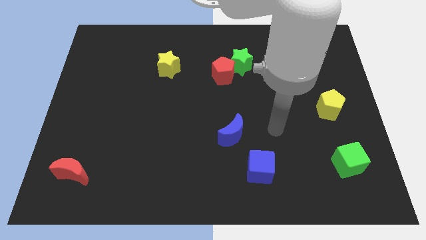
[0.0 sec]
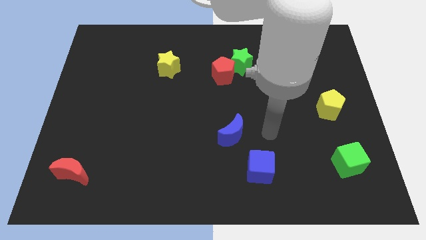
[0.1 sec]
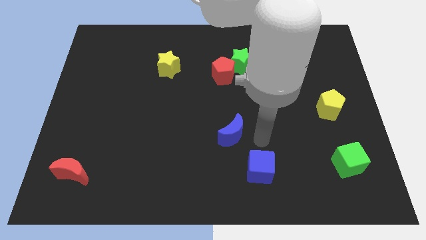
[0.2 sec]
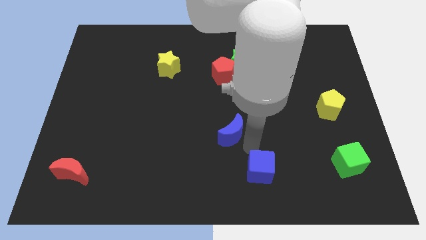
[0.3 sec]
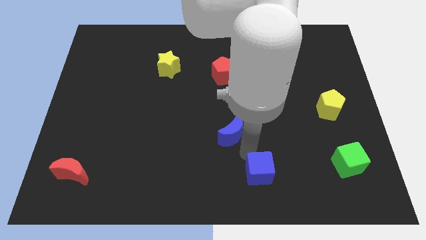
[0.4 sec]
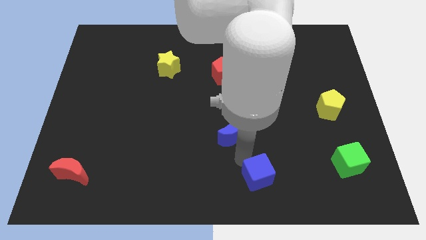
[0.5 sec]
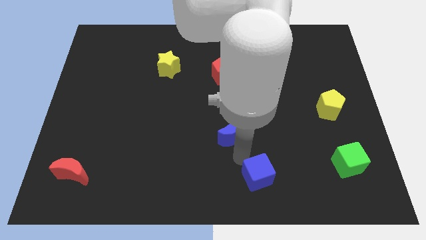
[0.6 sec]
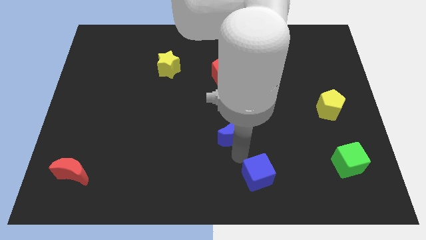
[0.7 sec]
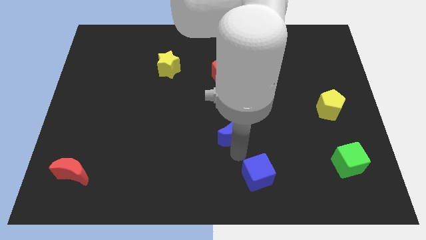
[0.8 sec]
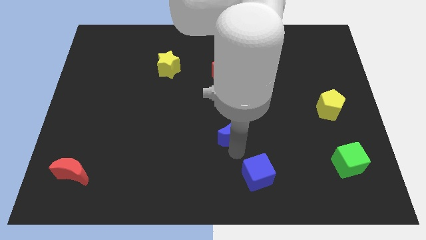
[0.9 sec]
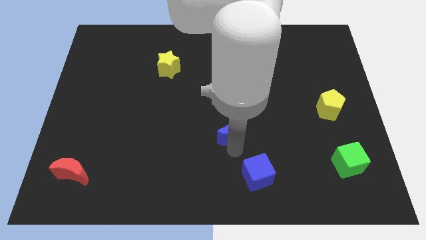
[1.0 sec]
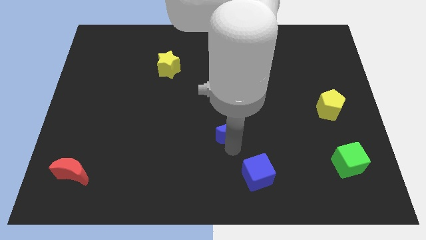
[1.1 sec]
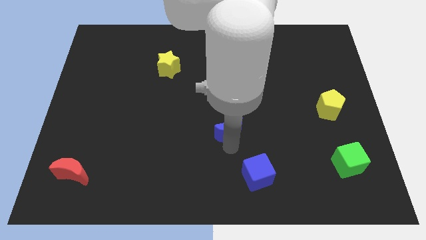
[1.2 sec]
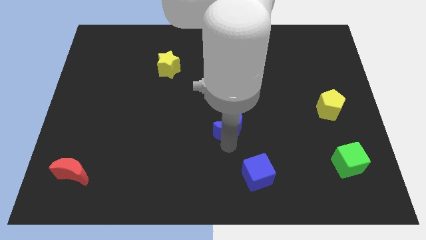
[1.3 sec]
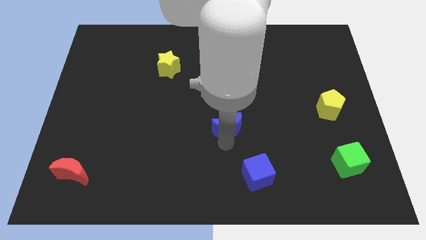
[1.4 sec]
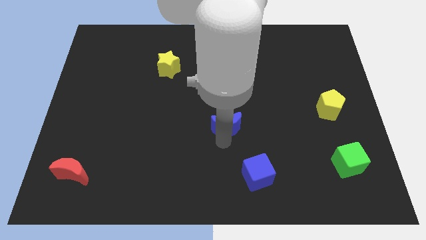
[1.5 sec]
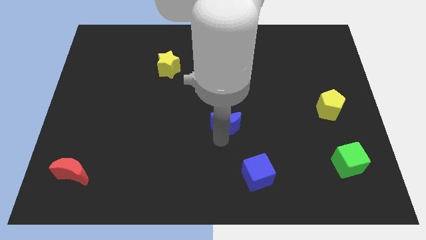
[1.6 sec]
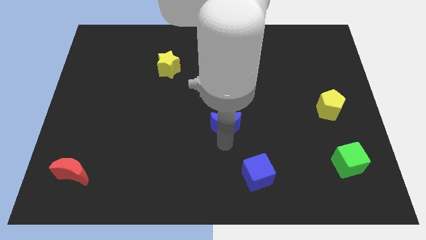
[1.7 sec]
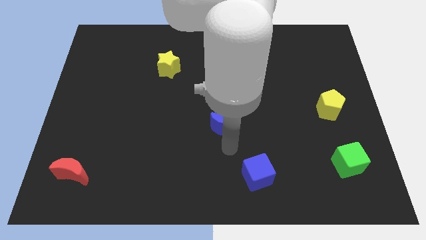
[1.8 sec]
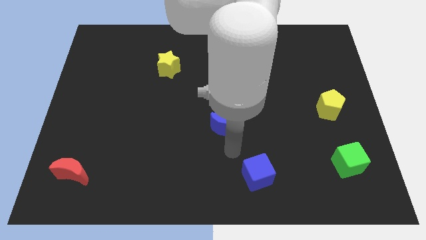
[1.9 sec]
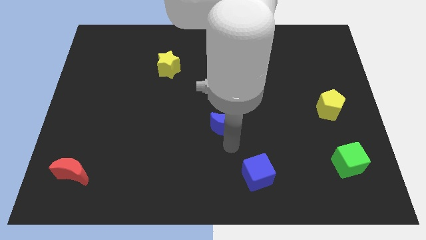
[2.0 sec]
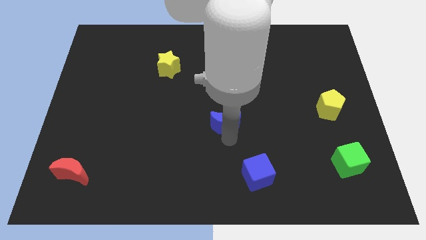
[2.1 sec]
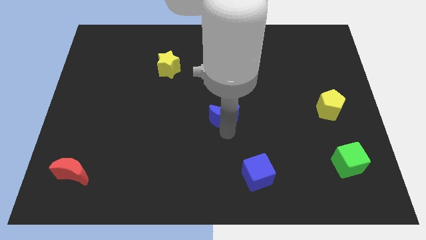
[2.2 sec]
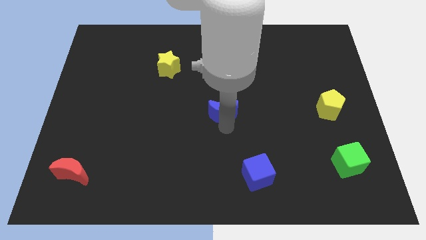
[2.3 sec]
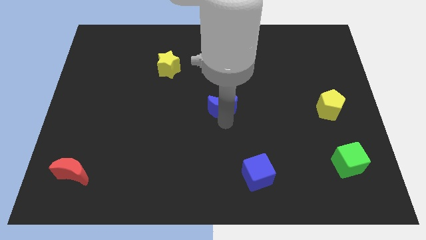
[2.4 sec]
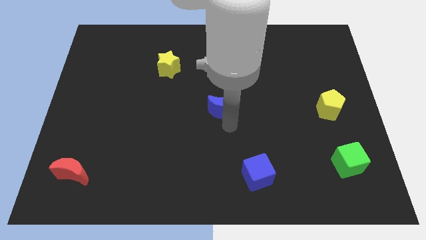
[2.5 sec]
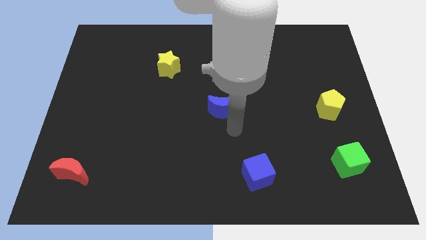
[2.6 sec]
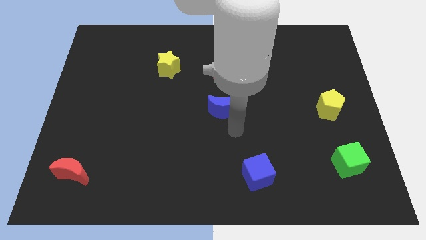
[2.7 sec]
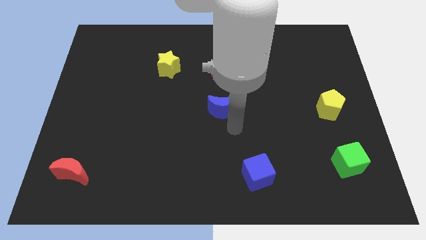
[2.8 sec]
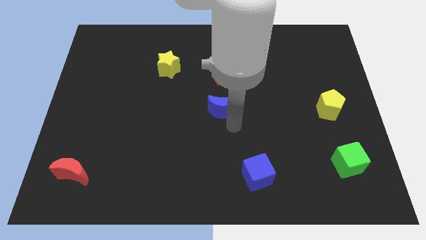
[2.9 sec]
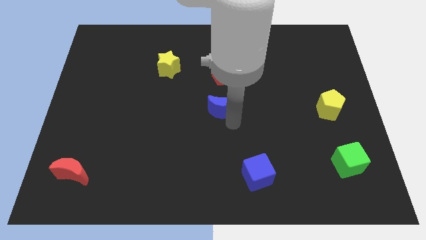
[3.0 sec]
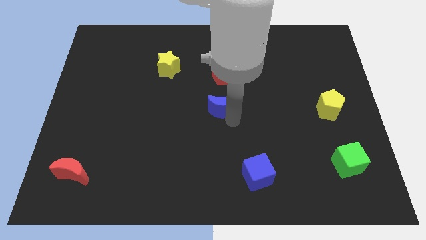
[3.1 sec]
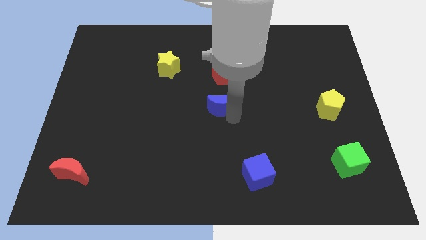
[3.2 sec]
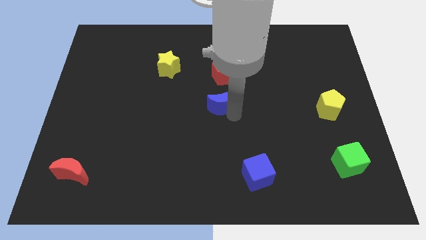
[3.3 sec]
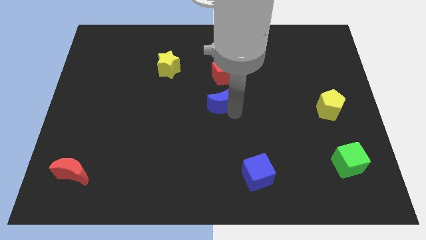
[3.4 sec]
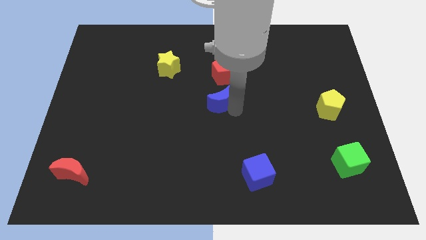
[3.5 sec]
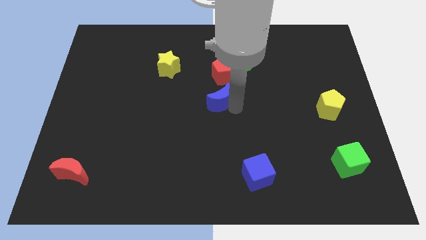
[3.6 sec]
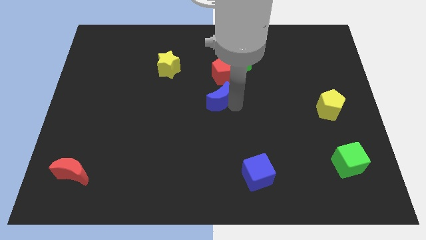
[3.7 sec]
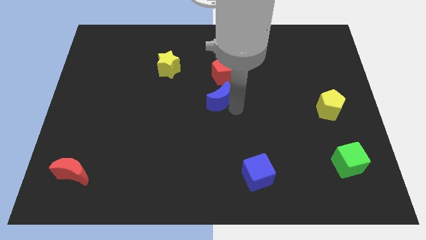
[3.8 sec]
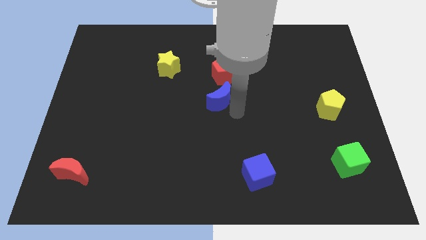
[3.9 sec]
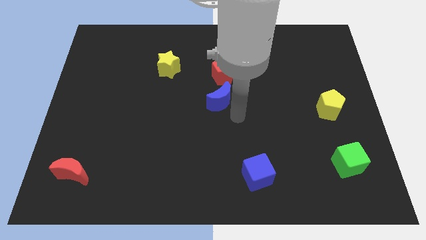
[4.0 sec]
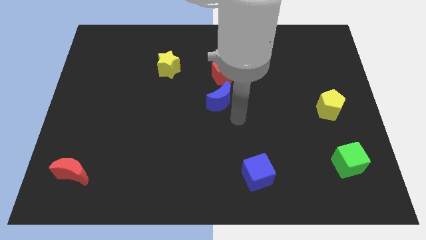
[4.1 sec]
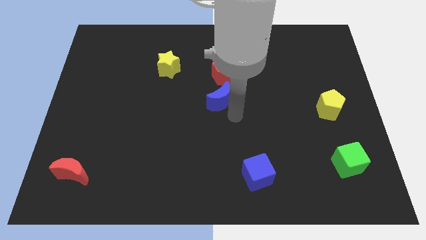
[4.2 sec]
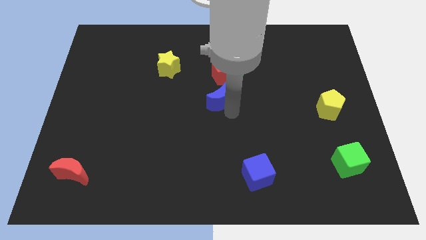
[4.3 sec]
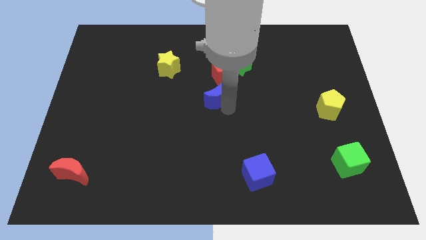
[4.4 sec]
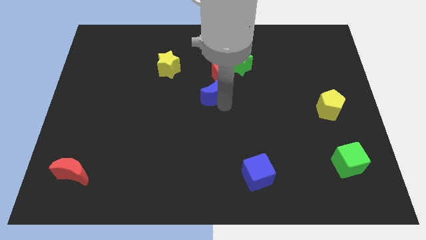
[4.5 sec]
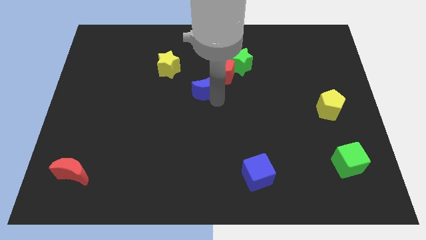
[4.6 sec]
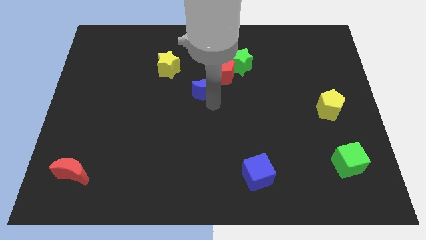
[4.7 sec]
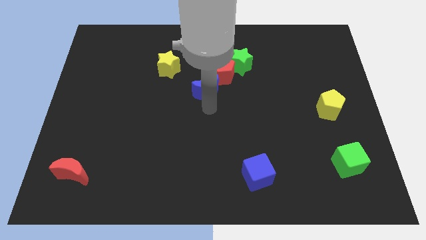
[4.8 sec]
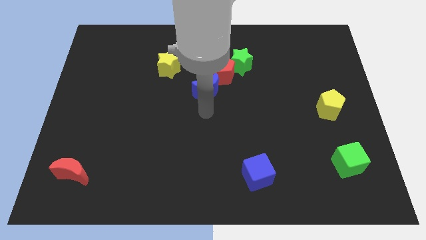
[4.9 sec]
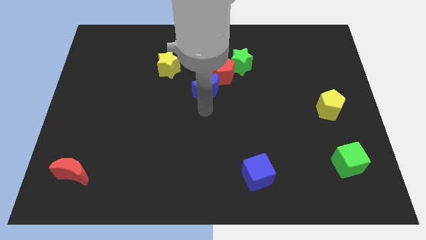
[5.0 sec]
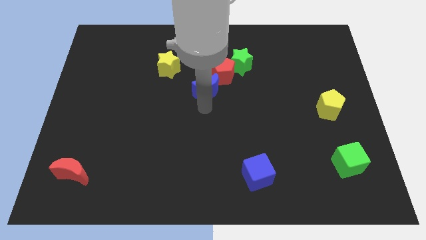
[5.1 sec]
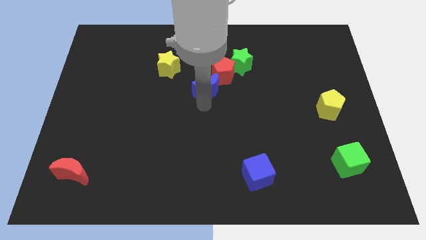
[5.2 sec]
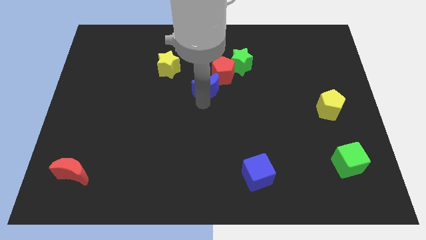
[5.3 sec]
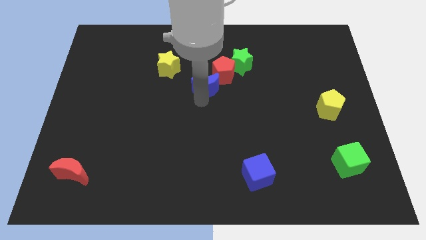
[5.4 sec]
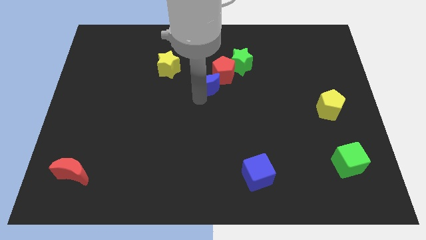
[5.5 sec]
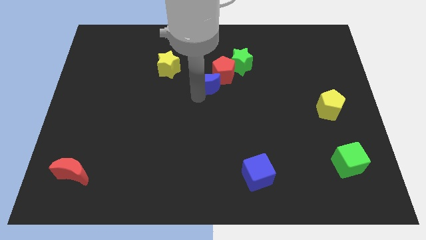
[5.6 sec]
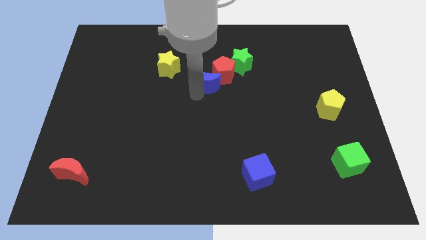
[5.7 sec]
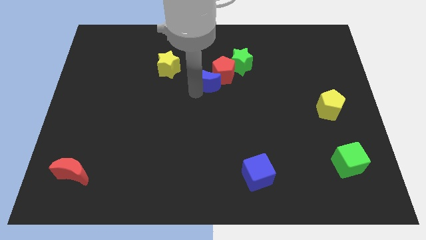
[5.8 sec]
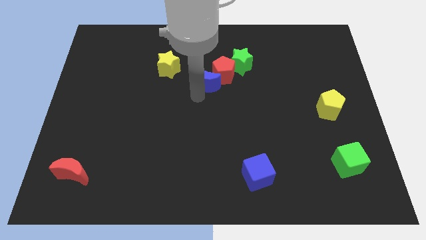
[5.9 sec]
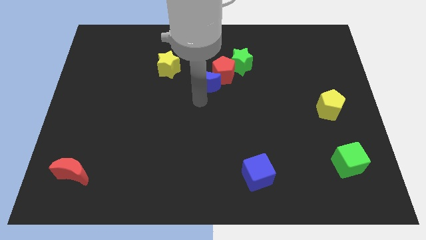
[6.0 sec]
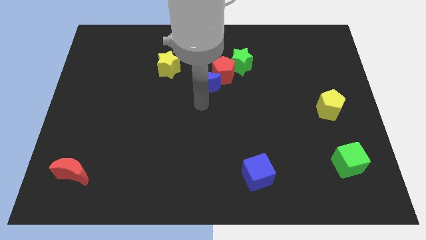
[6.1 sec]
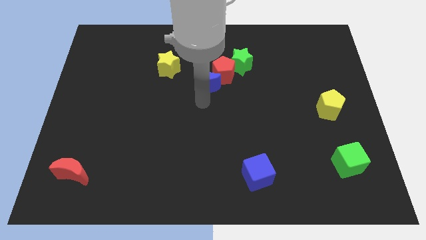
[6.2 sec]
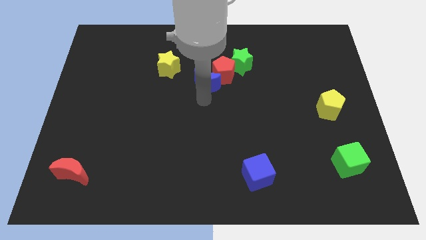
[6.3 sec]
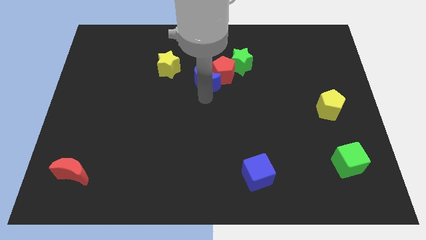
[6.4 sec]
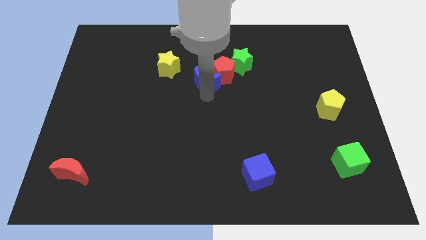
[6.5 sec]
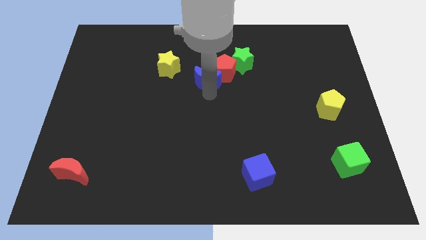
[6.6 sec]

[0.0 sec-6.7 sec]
slide the blue moon to the right side of the yellow star

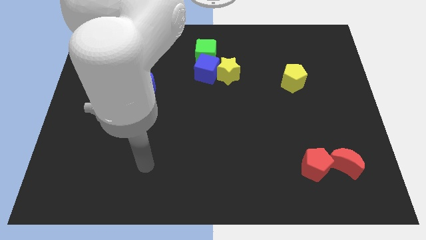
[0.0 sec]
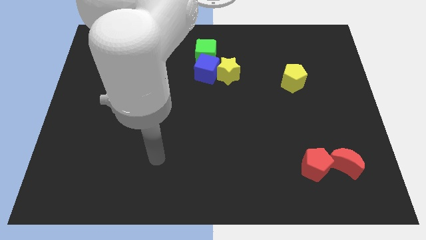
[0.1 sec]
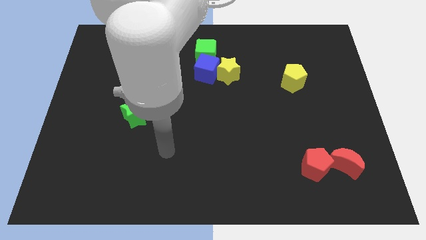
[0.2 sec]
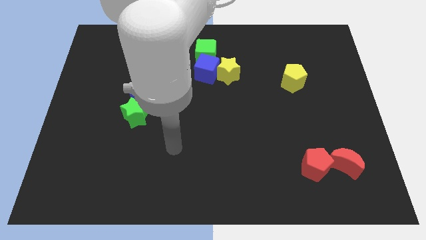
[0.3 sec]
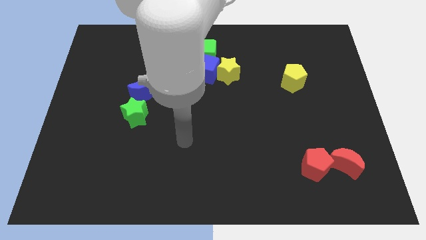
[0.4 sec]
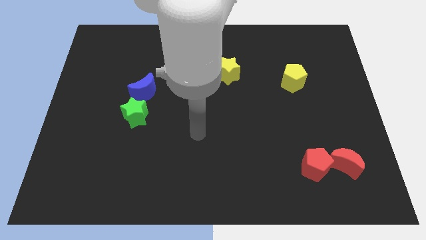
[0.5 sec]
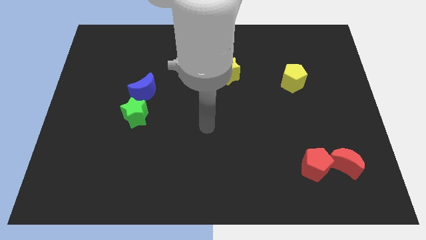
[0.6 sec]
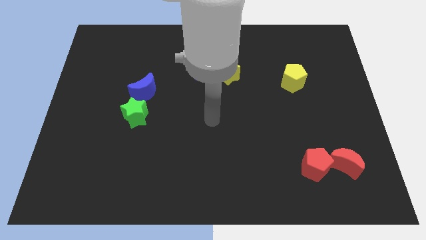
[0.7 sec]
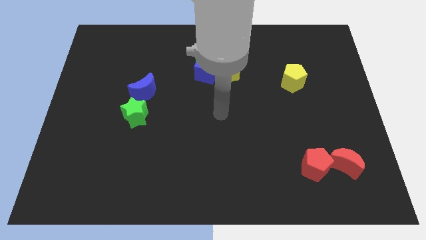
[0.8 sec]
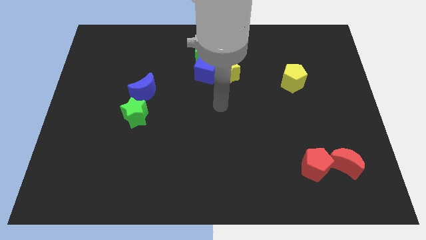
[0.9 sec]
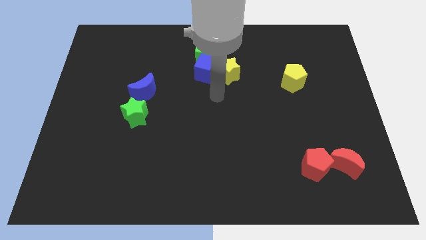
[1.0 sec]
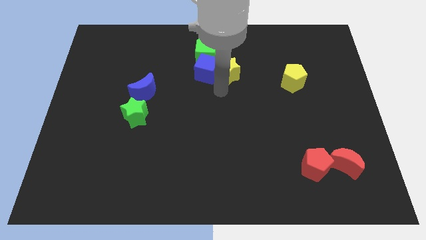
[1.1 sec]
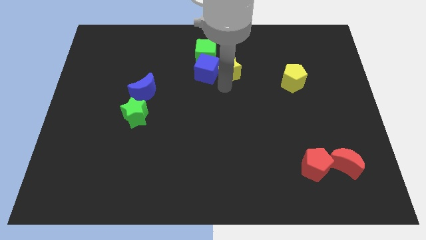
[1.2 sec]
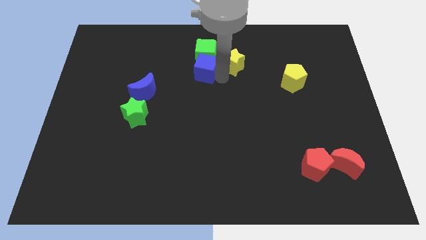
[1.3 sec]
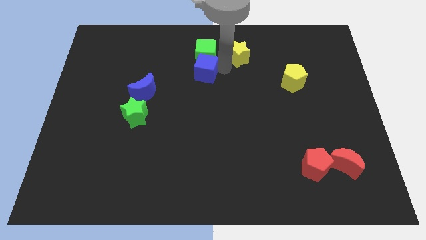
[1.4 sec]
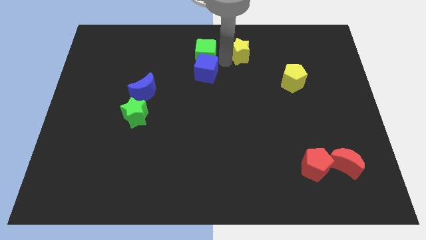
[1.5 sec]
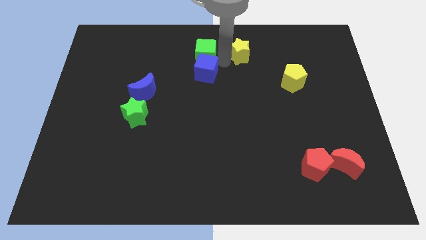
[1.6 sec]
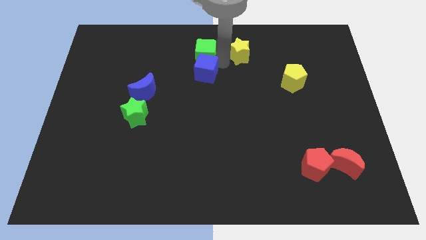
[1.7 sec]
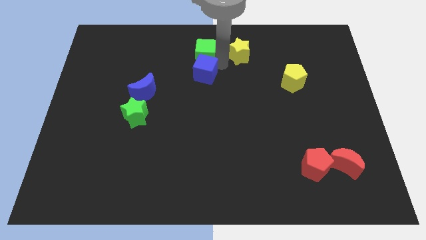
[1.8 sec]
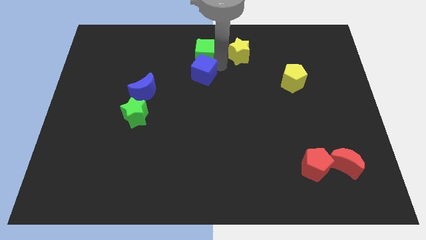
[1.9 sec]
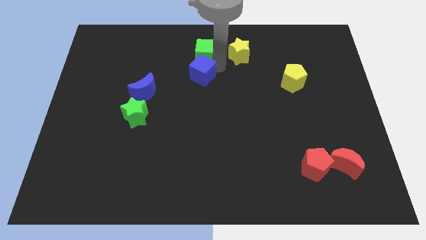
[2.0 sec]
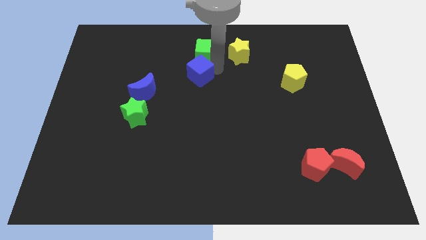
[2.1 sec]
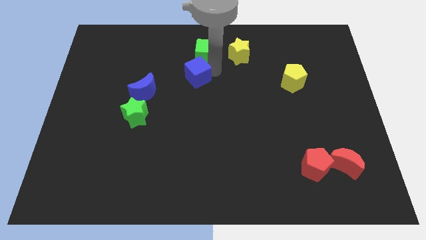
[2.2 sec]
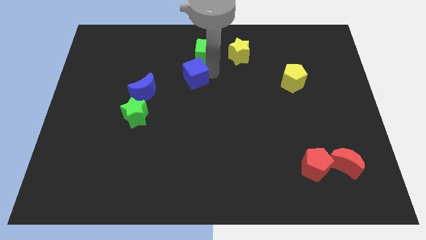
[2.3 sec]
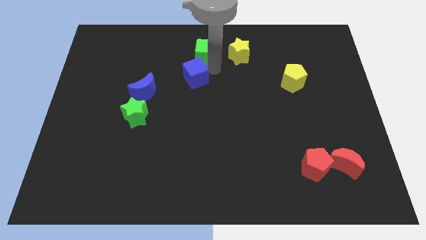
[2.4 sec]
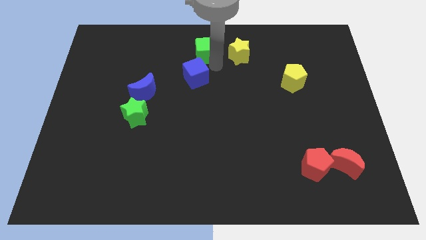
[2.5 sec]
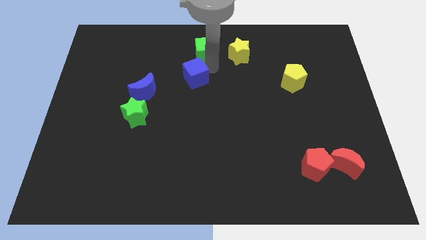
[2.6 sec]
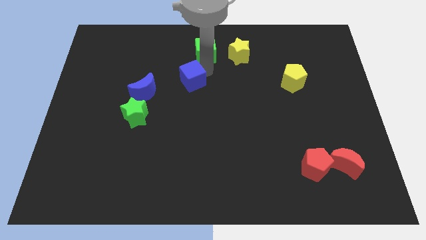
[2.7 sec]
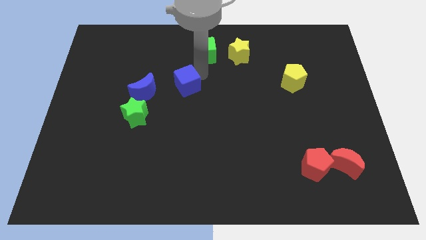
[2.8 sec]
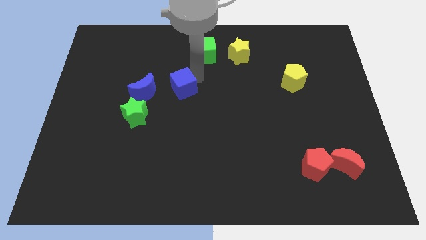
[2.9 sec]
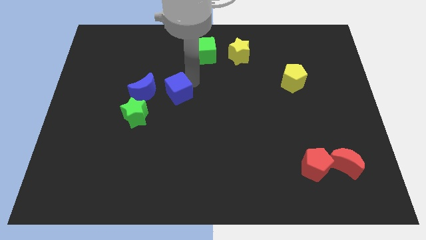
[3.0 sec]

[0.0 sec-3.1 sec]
slide the blue cube to the top right of the green star
